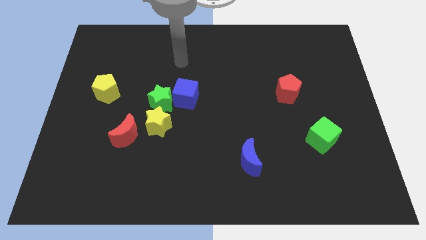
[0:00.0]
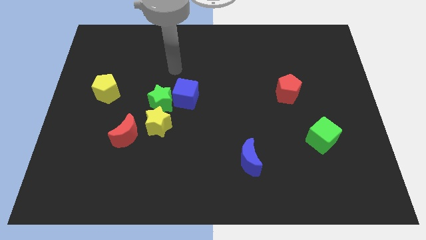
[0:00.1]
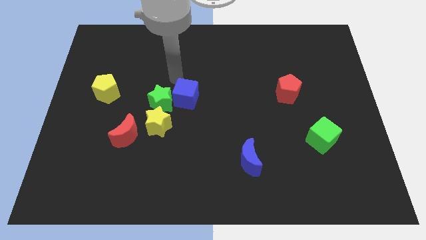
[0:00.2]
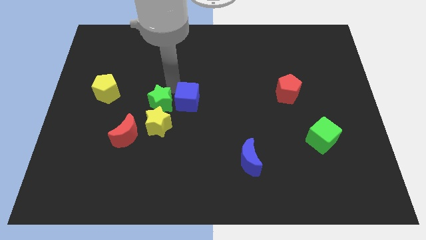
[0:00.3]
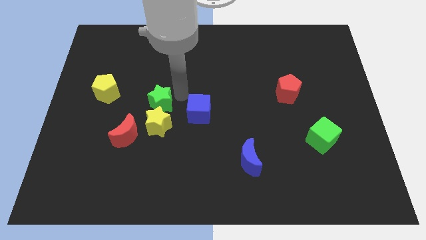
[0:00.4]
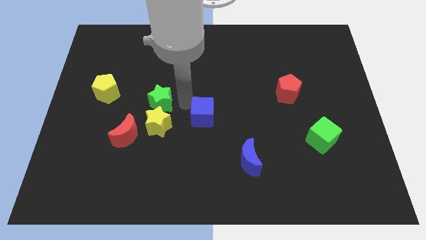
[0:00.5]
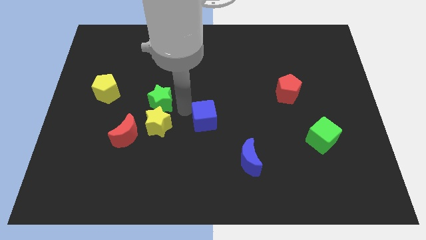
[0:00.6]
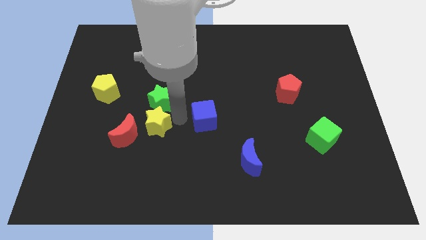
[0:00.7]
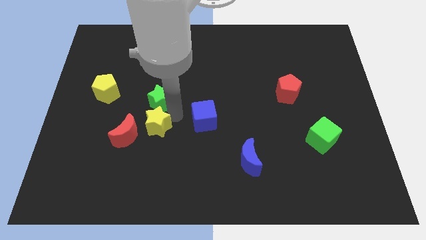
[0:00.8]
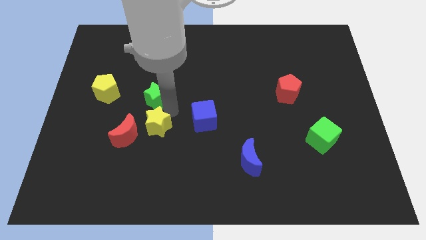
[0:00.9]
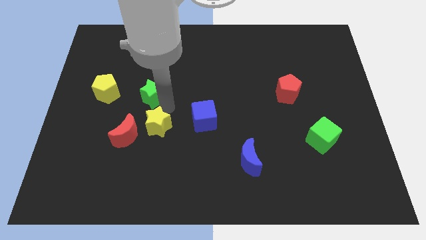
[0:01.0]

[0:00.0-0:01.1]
pull the green star apart from the blue cube and yellow star

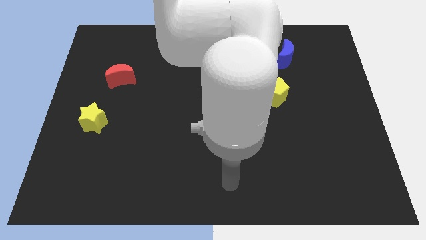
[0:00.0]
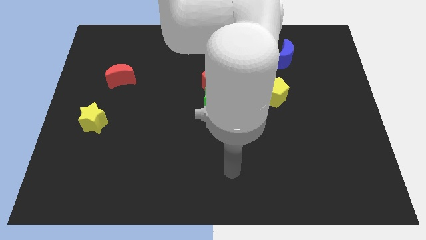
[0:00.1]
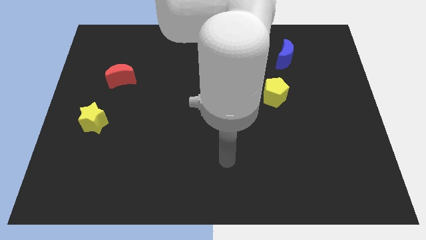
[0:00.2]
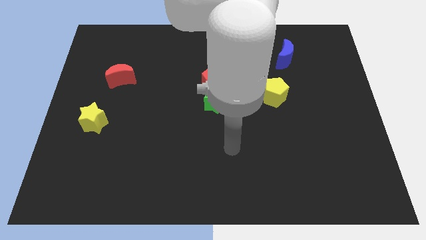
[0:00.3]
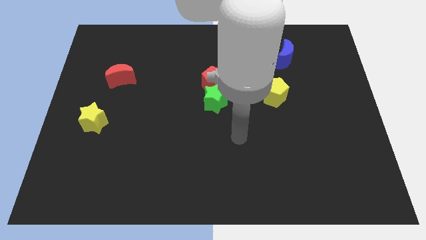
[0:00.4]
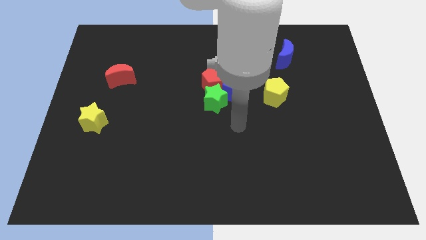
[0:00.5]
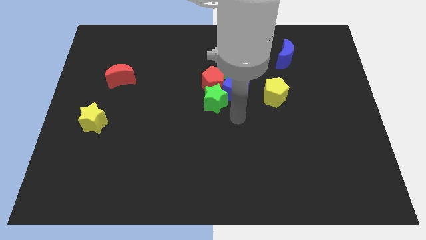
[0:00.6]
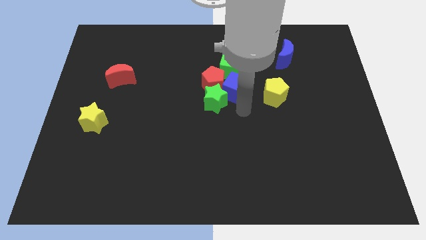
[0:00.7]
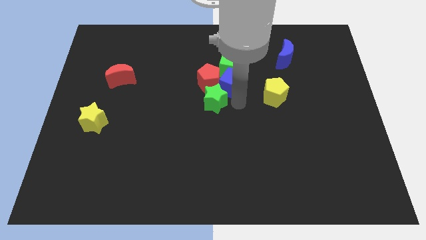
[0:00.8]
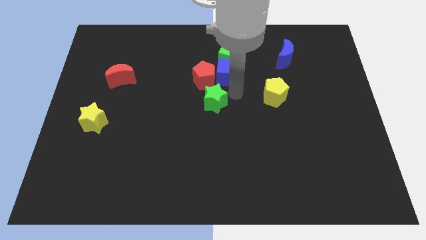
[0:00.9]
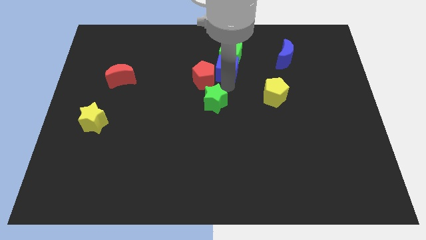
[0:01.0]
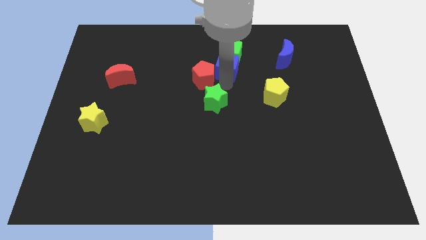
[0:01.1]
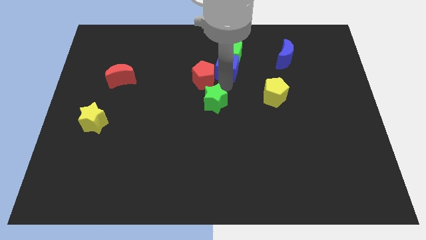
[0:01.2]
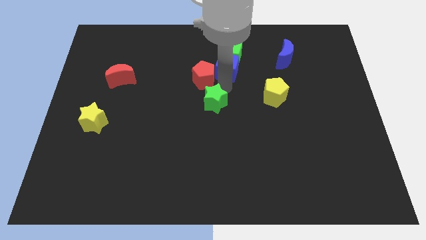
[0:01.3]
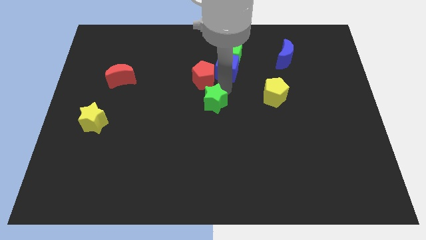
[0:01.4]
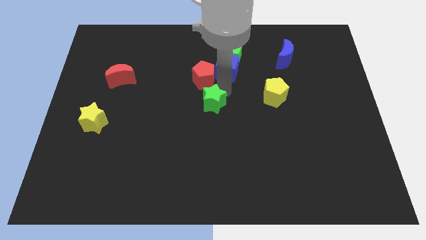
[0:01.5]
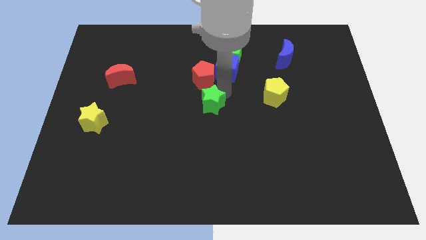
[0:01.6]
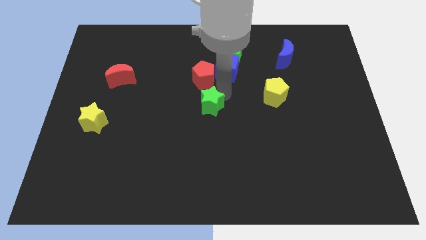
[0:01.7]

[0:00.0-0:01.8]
move the green star away from the red pentagon and blue cube

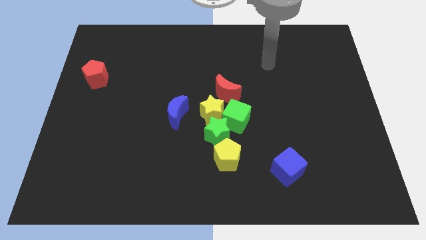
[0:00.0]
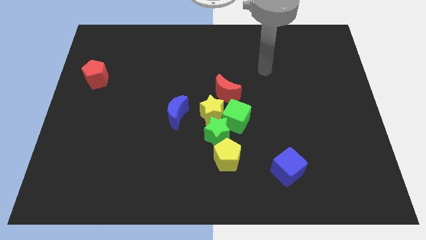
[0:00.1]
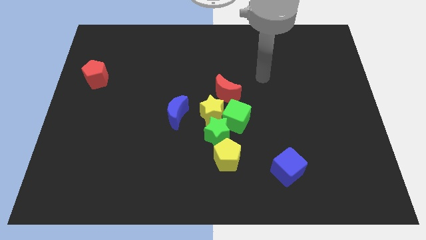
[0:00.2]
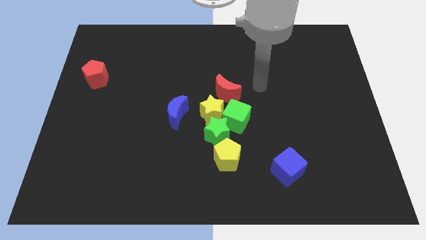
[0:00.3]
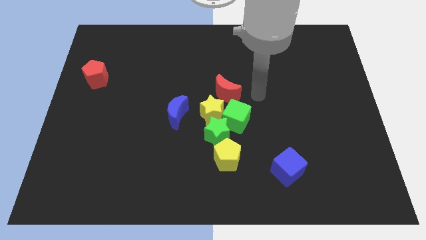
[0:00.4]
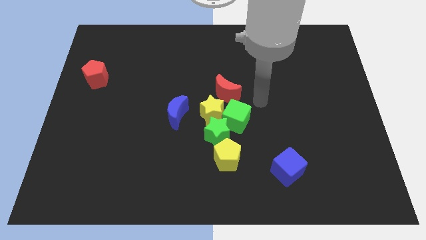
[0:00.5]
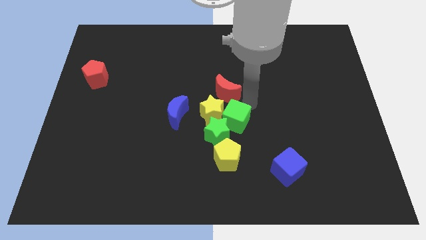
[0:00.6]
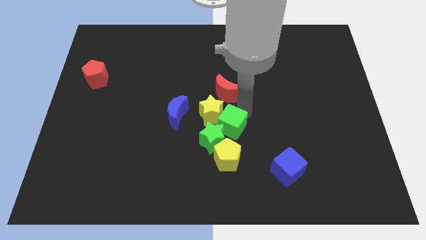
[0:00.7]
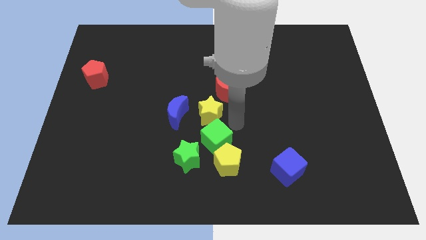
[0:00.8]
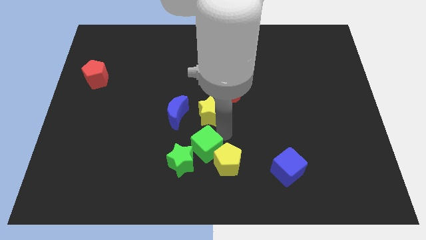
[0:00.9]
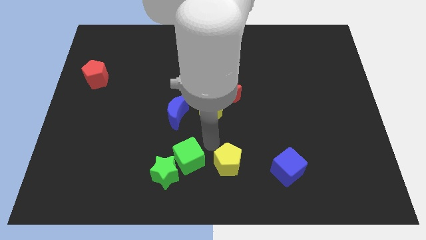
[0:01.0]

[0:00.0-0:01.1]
move the green star away from the group of blocks

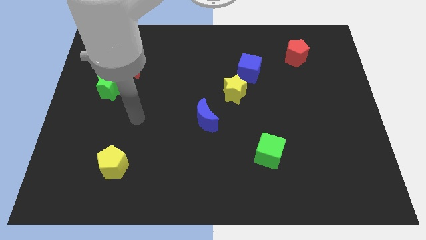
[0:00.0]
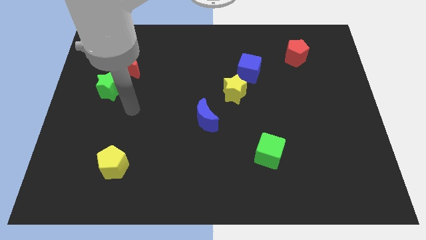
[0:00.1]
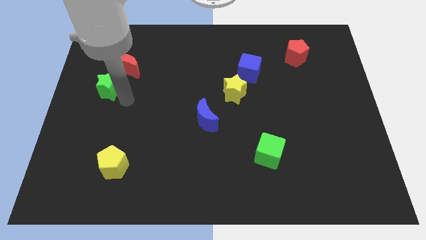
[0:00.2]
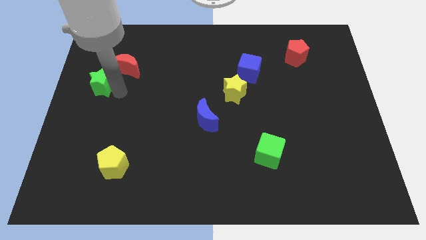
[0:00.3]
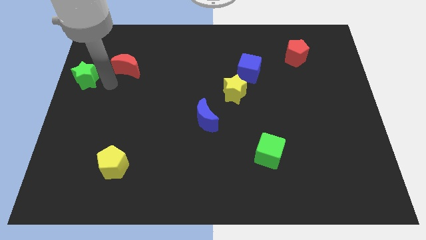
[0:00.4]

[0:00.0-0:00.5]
pull the red moon apart from the green star

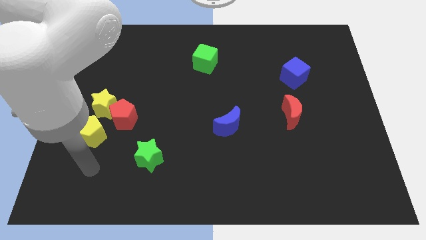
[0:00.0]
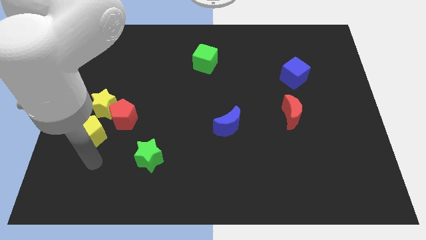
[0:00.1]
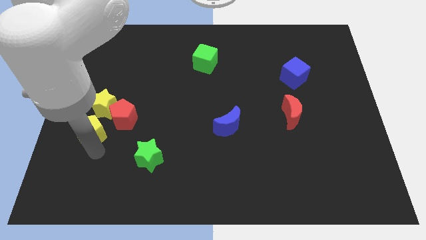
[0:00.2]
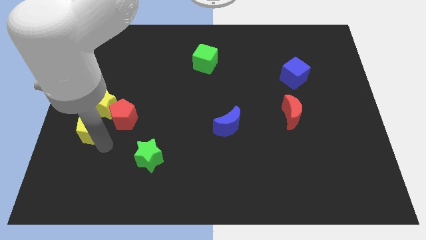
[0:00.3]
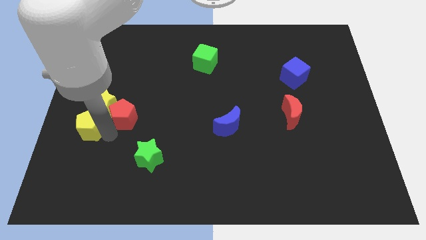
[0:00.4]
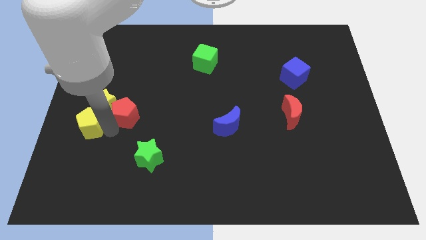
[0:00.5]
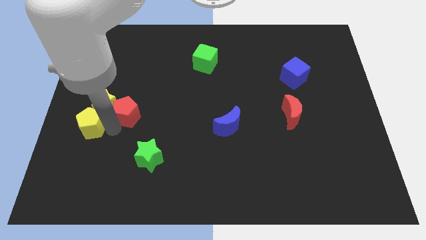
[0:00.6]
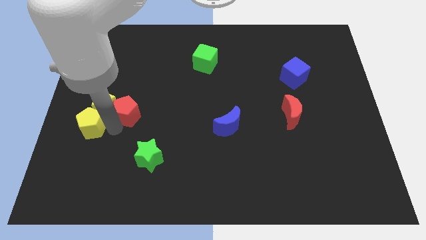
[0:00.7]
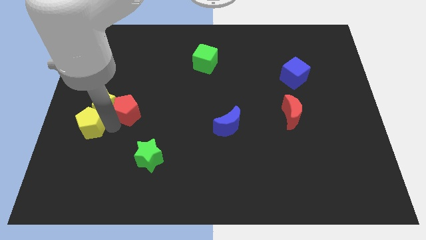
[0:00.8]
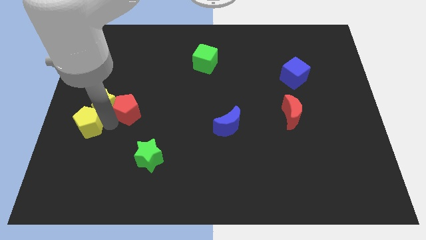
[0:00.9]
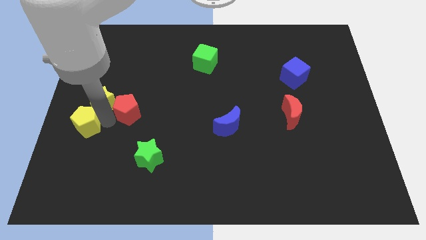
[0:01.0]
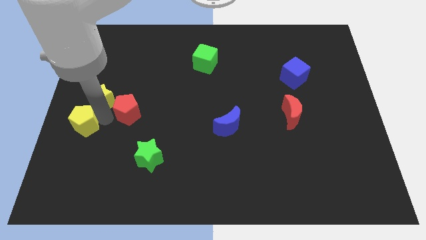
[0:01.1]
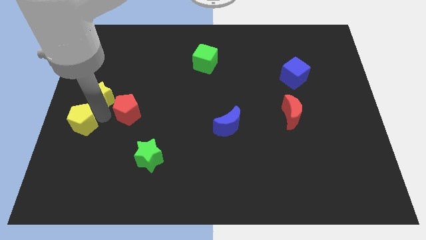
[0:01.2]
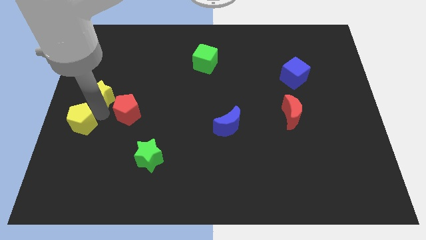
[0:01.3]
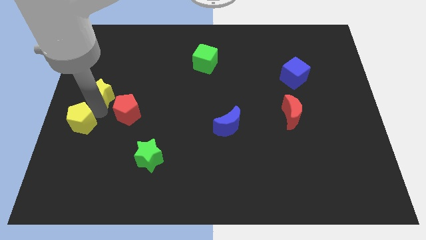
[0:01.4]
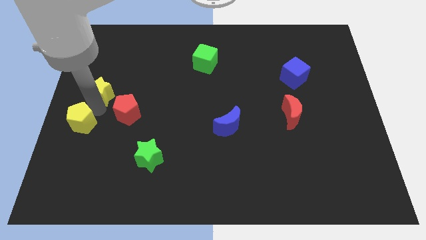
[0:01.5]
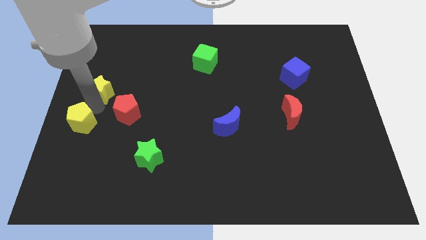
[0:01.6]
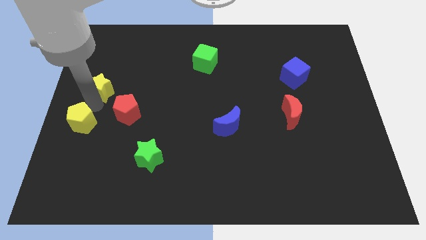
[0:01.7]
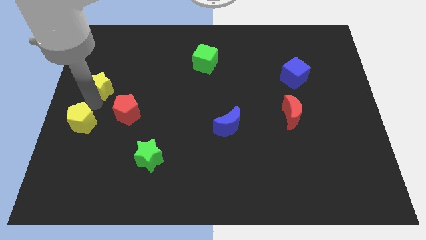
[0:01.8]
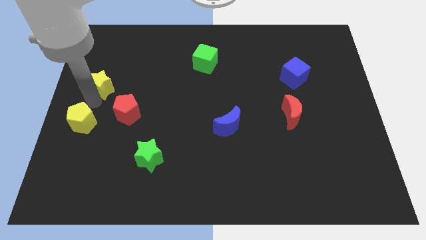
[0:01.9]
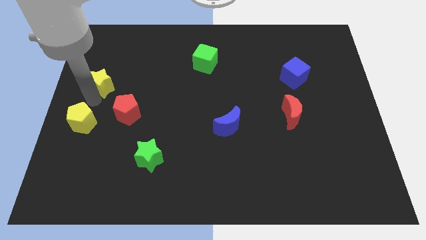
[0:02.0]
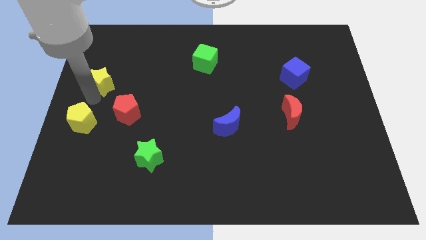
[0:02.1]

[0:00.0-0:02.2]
separate the yellow star from the red pentagon and yellow pentagon

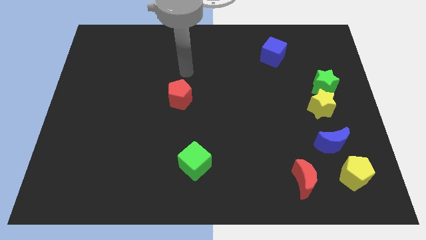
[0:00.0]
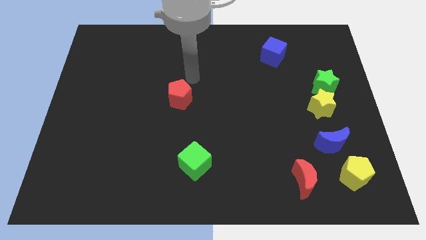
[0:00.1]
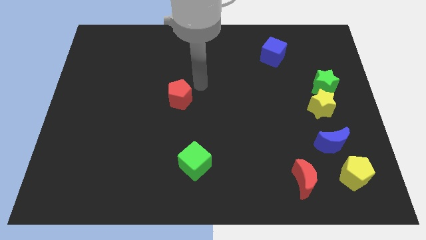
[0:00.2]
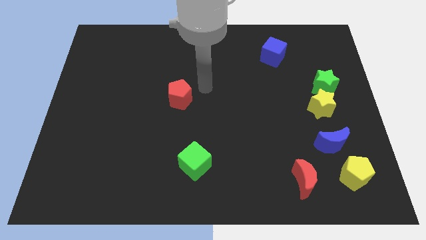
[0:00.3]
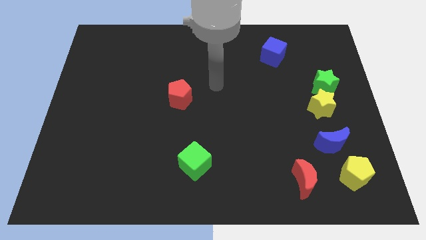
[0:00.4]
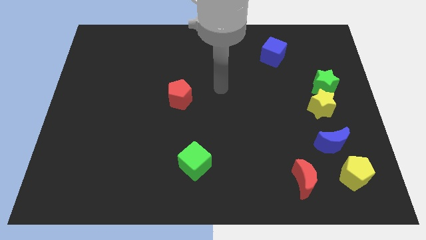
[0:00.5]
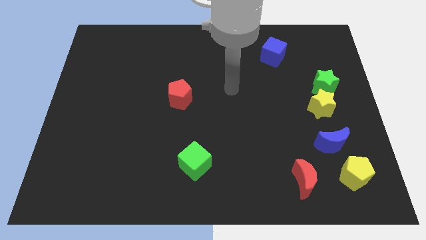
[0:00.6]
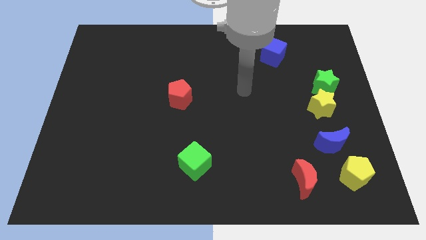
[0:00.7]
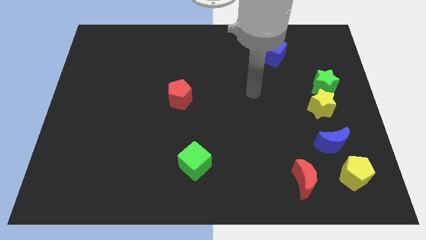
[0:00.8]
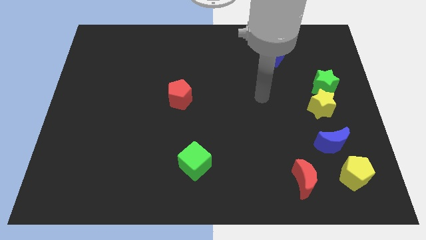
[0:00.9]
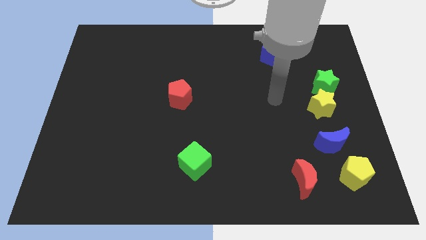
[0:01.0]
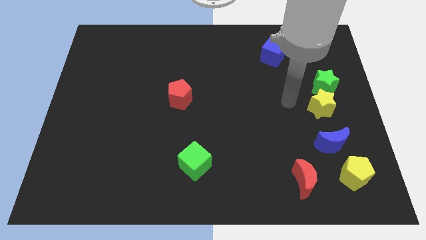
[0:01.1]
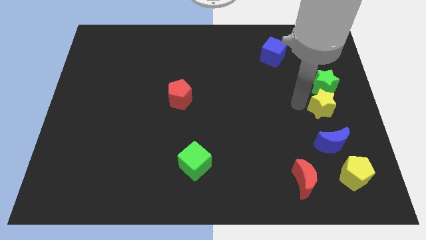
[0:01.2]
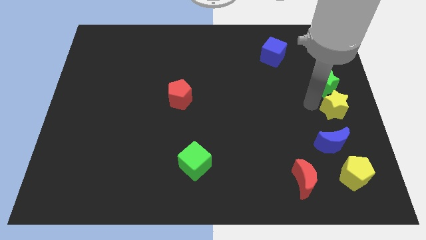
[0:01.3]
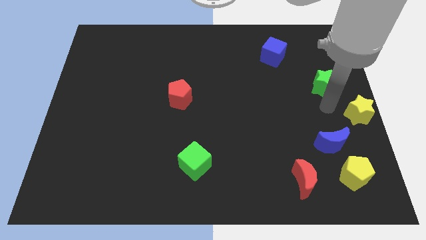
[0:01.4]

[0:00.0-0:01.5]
pull the green star apart from the yellow star

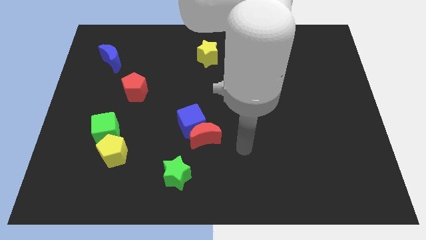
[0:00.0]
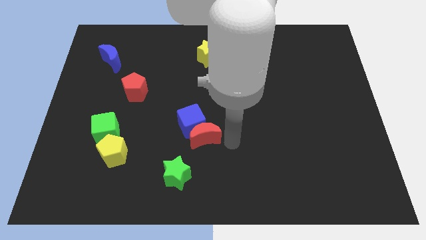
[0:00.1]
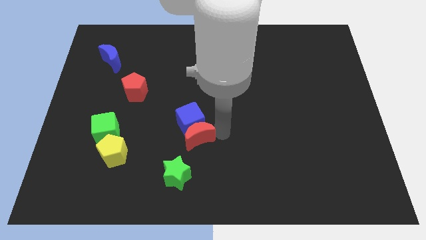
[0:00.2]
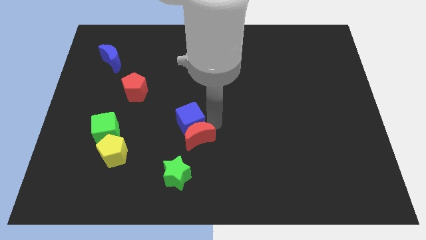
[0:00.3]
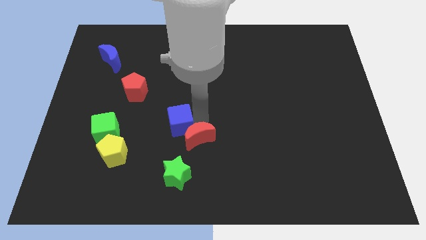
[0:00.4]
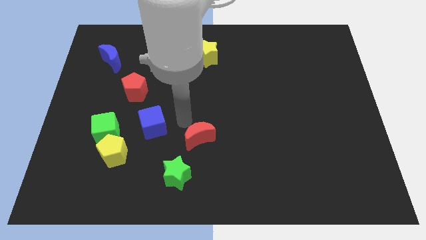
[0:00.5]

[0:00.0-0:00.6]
move the red moon away from the blue cube

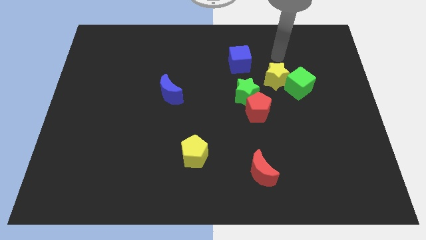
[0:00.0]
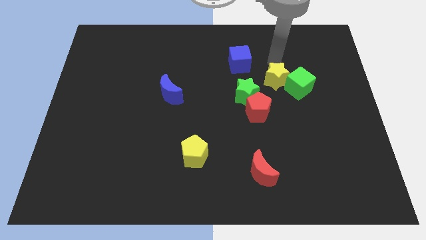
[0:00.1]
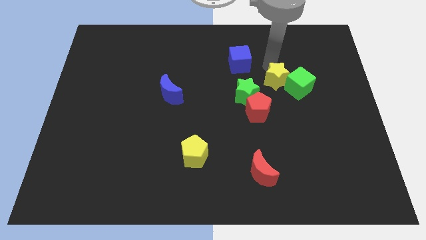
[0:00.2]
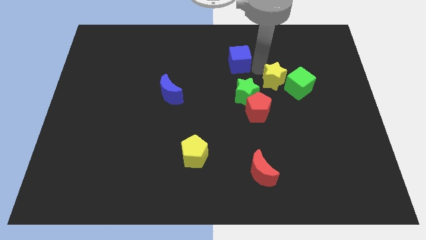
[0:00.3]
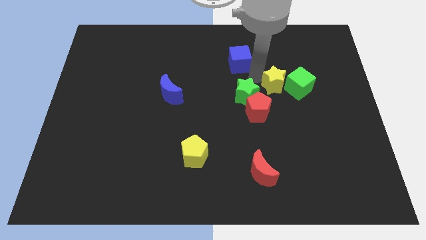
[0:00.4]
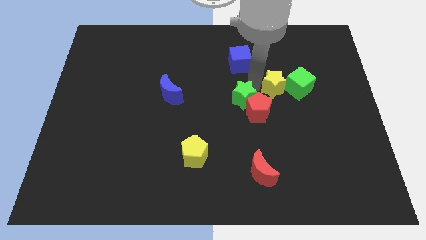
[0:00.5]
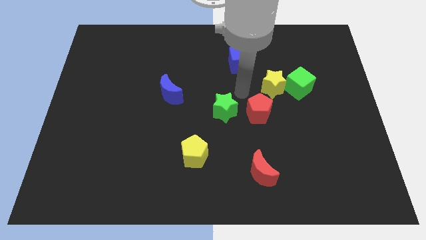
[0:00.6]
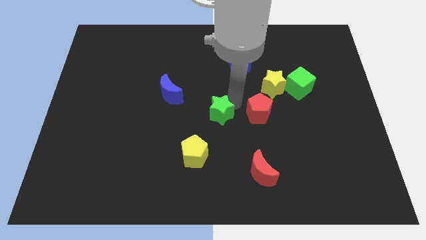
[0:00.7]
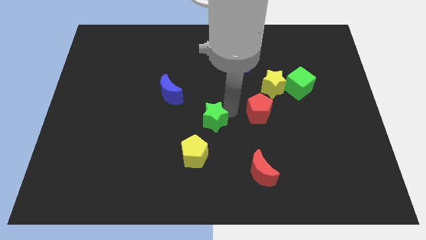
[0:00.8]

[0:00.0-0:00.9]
separate the red pentagon from the green star
